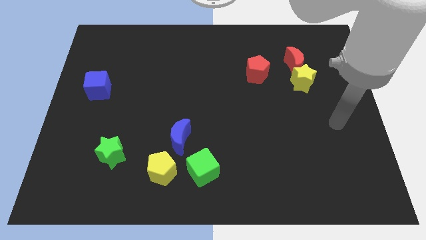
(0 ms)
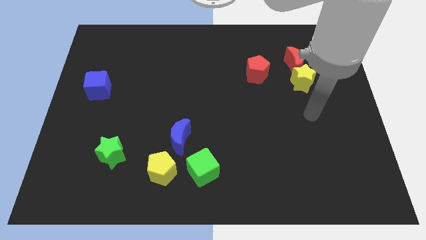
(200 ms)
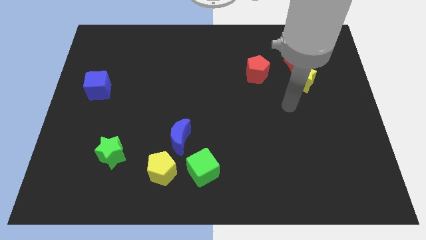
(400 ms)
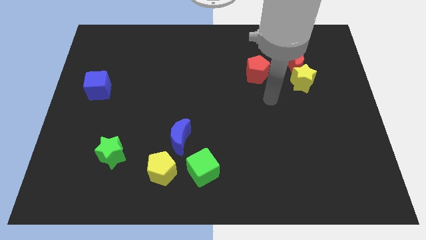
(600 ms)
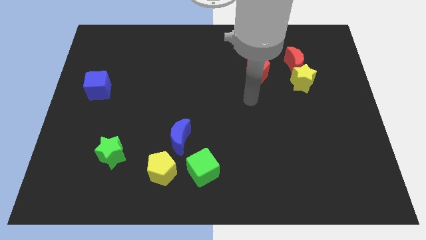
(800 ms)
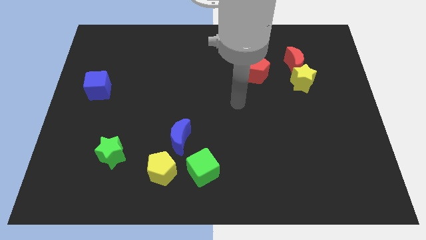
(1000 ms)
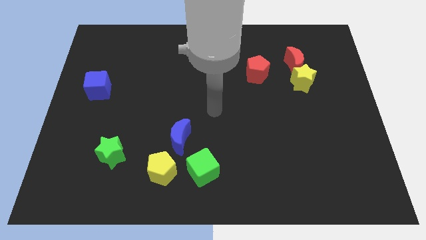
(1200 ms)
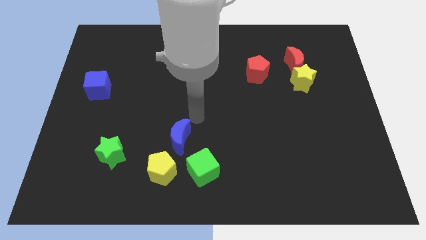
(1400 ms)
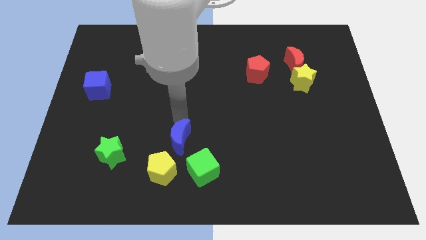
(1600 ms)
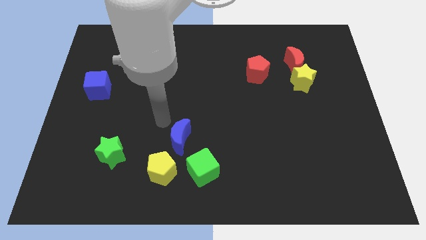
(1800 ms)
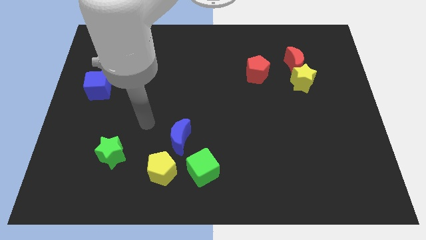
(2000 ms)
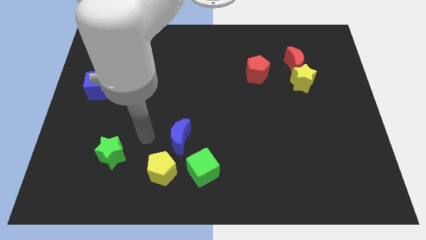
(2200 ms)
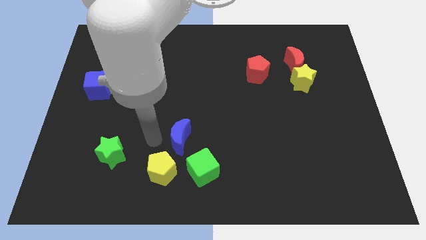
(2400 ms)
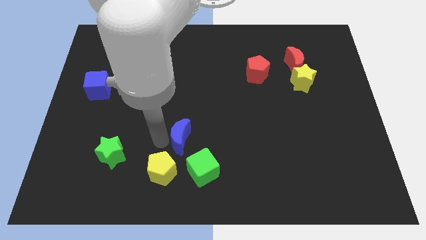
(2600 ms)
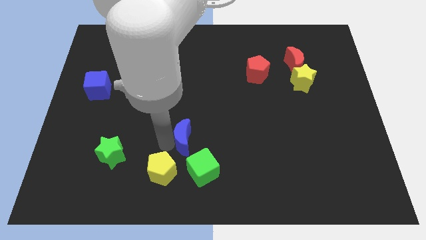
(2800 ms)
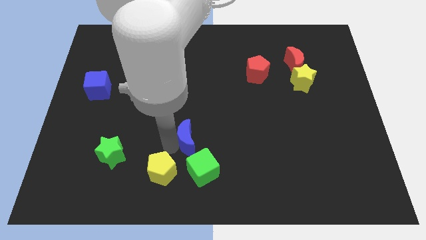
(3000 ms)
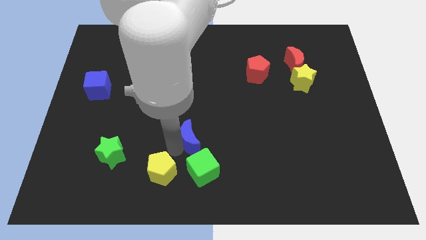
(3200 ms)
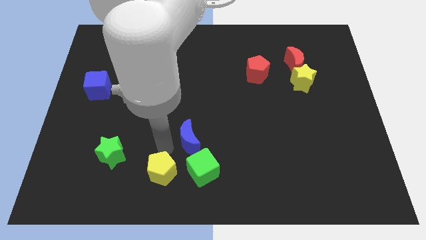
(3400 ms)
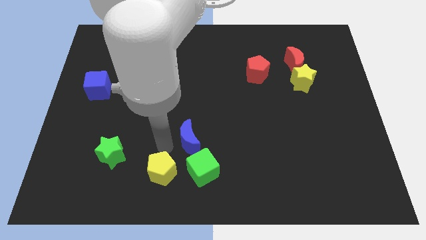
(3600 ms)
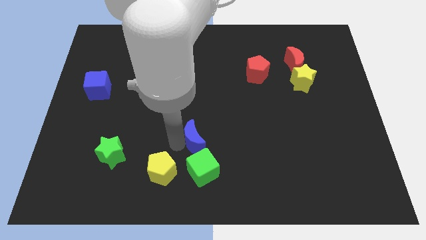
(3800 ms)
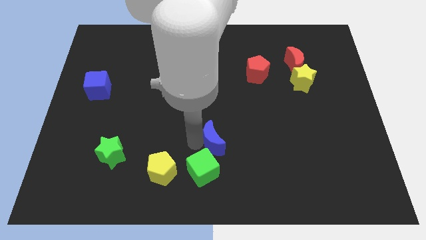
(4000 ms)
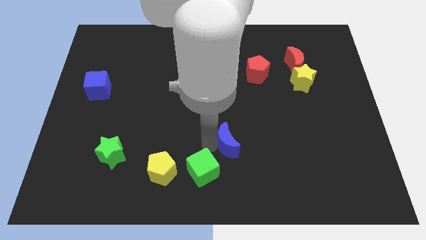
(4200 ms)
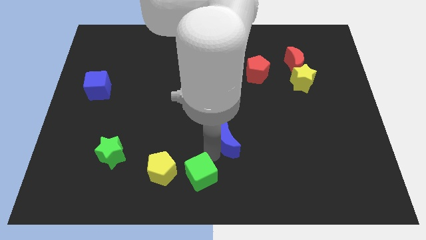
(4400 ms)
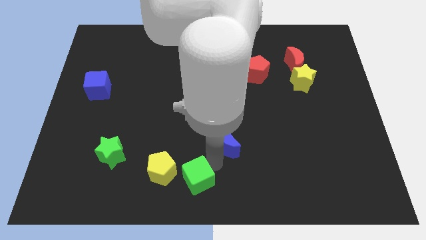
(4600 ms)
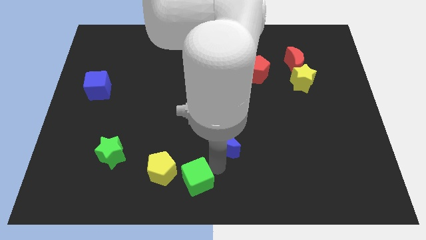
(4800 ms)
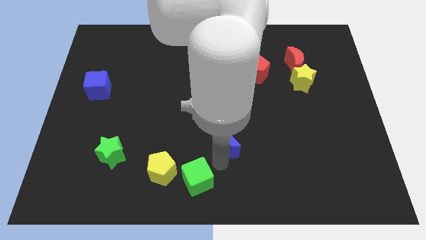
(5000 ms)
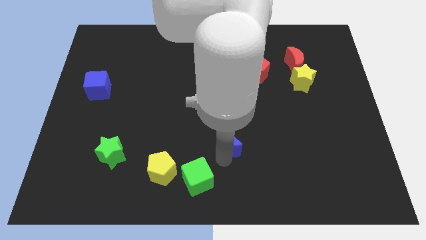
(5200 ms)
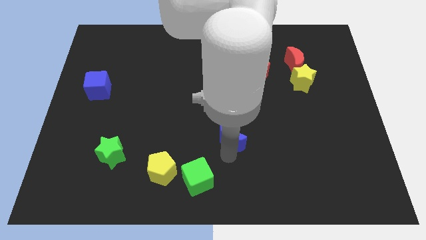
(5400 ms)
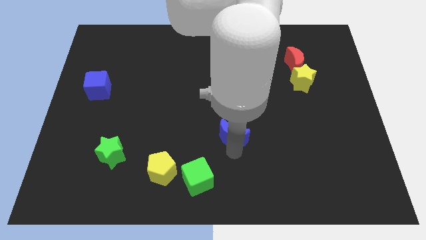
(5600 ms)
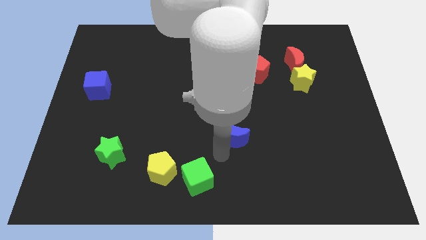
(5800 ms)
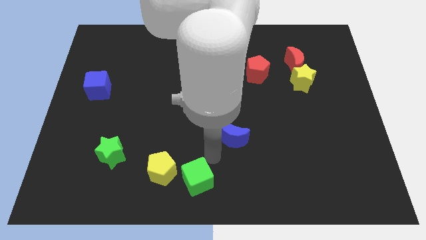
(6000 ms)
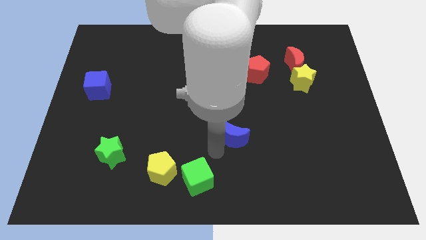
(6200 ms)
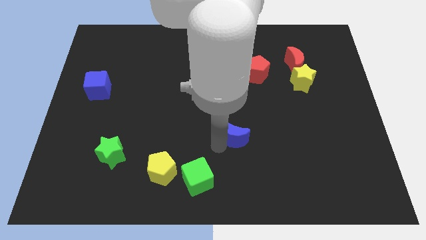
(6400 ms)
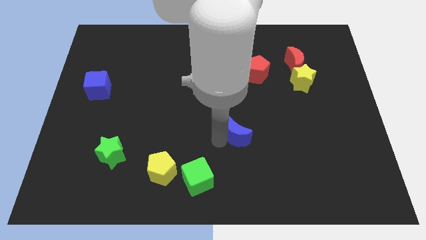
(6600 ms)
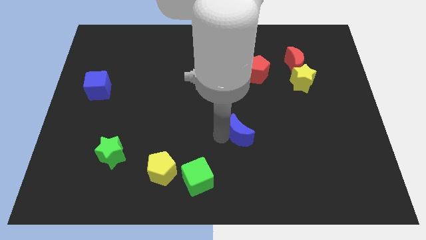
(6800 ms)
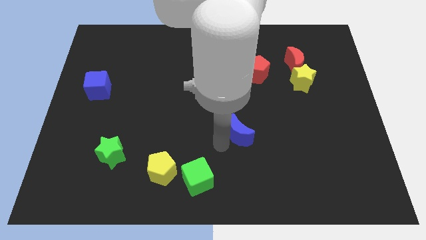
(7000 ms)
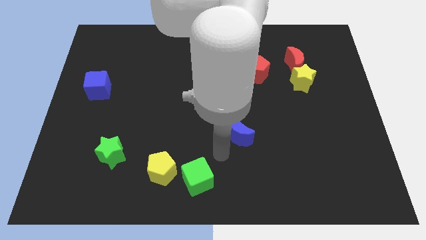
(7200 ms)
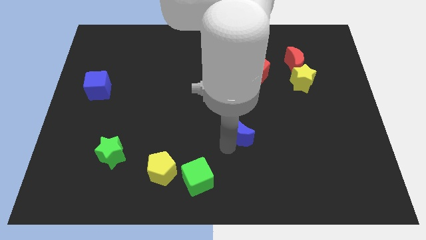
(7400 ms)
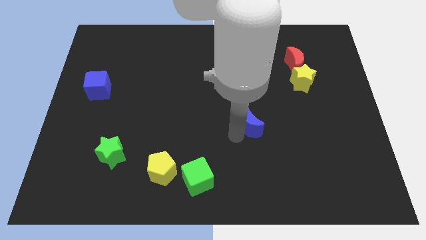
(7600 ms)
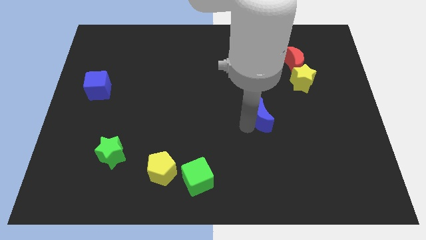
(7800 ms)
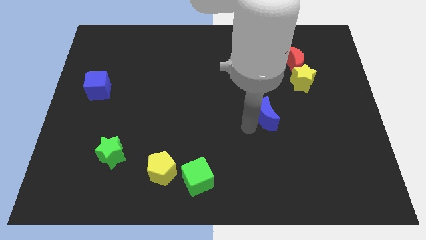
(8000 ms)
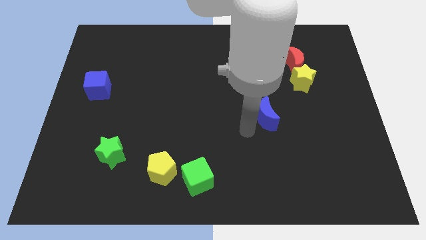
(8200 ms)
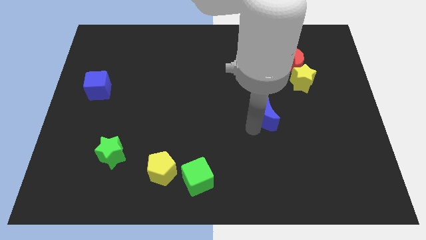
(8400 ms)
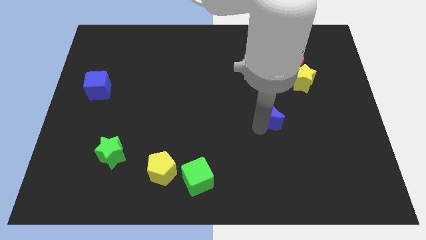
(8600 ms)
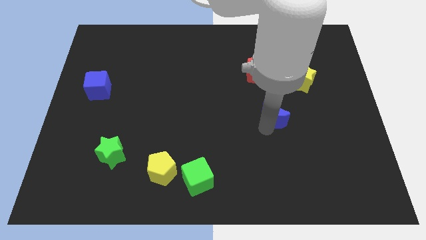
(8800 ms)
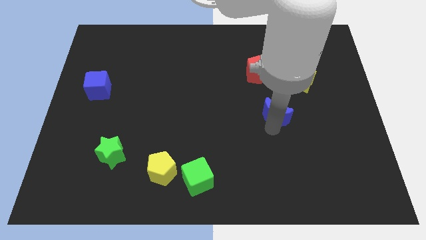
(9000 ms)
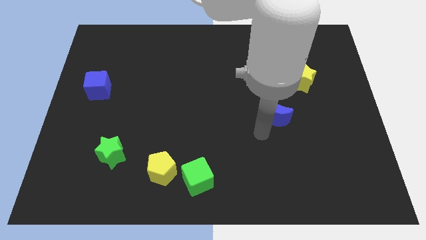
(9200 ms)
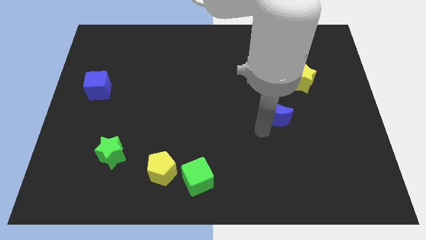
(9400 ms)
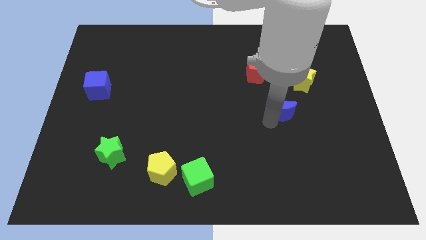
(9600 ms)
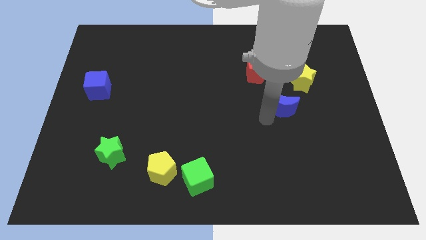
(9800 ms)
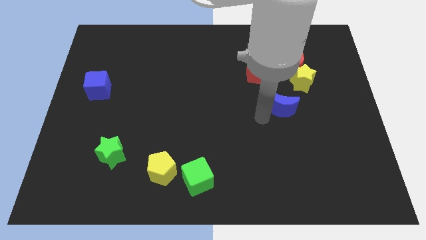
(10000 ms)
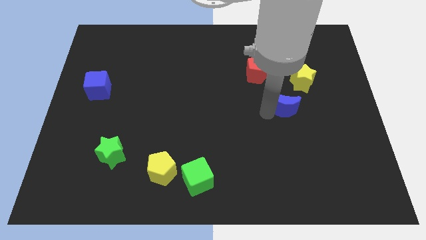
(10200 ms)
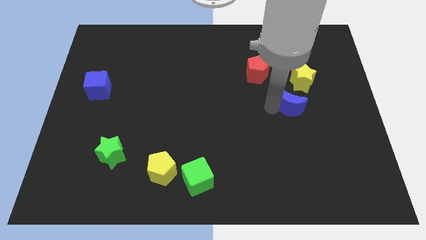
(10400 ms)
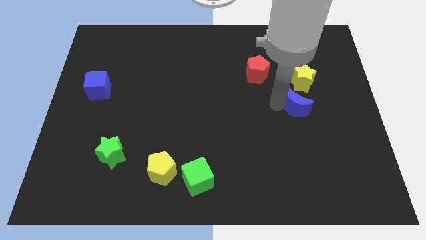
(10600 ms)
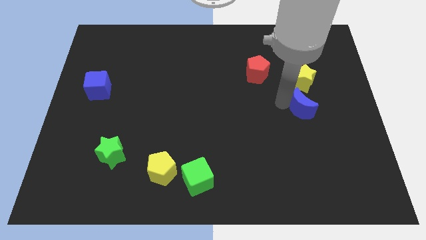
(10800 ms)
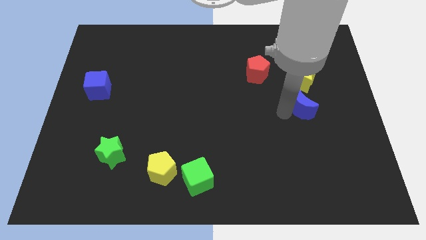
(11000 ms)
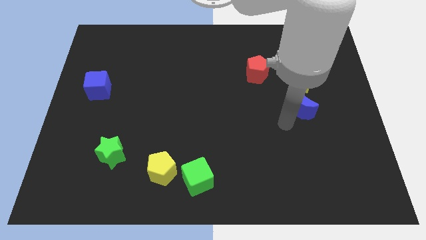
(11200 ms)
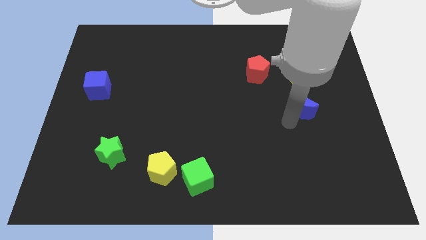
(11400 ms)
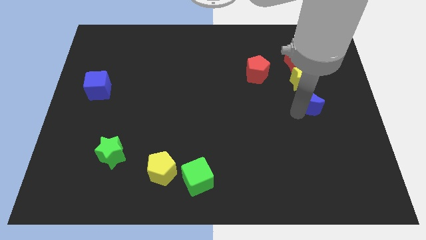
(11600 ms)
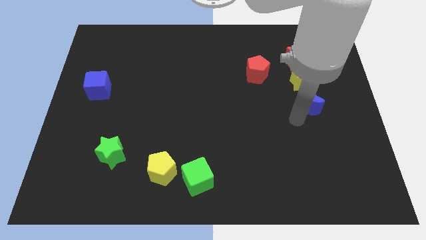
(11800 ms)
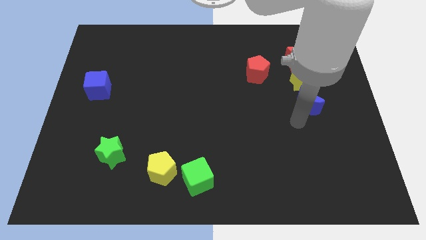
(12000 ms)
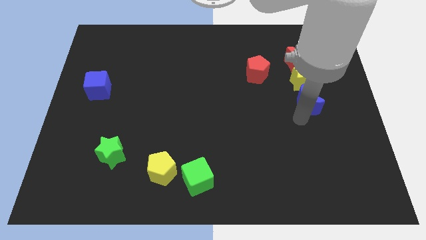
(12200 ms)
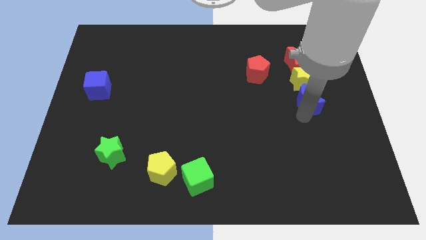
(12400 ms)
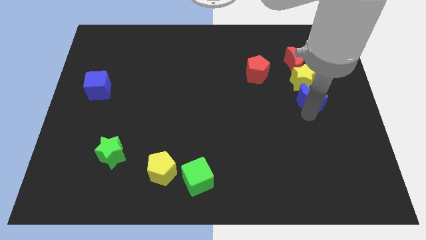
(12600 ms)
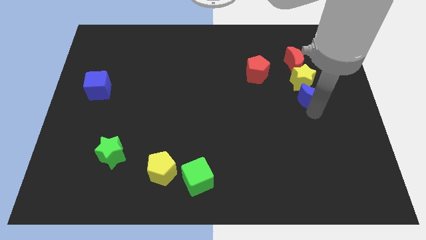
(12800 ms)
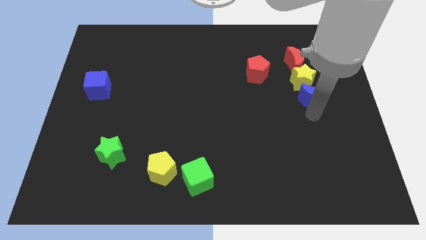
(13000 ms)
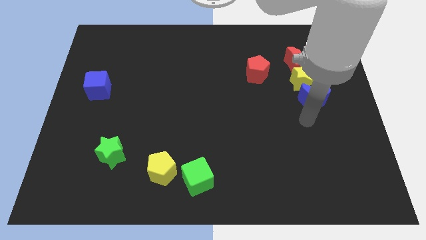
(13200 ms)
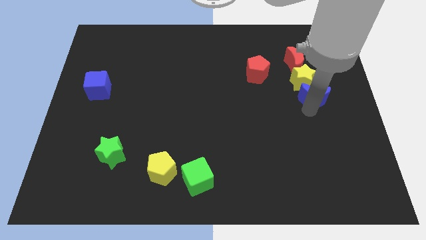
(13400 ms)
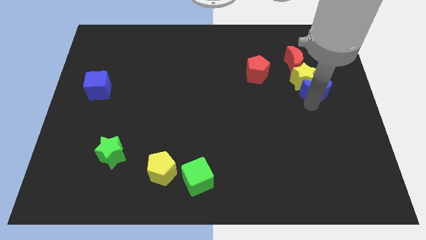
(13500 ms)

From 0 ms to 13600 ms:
slide the blue moon diagonally down and to the right of the red moon
